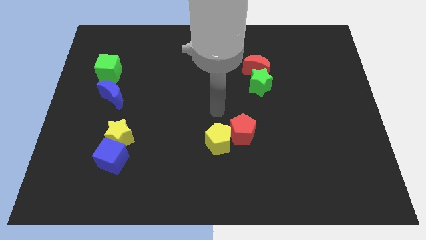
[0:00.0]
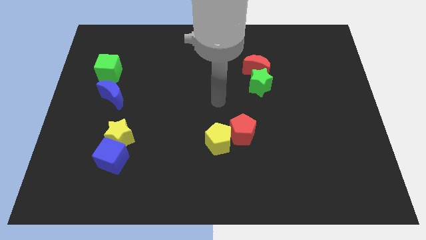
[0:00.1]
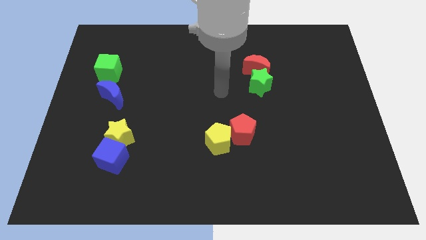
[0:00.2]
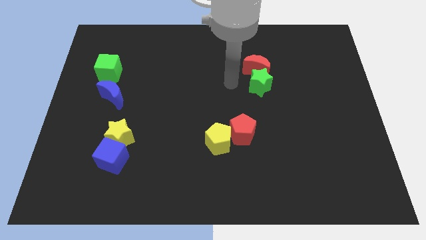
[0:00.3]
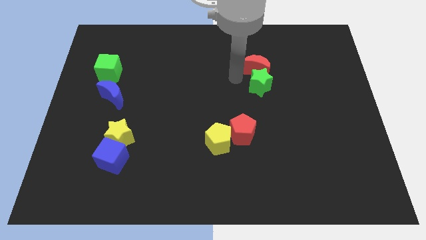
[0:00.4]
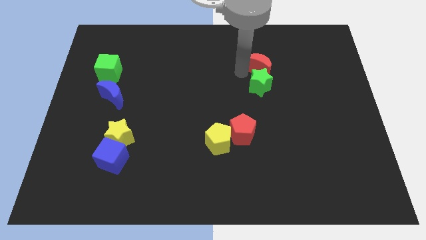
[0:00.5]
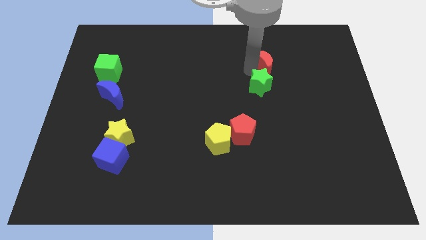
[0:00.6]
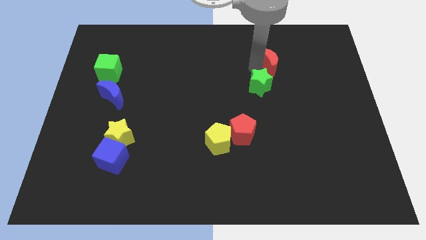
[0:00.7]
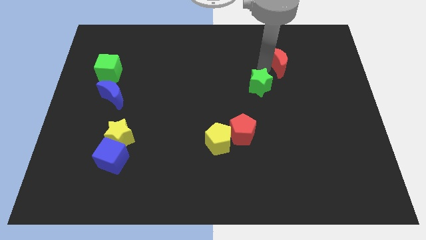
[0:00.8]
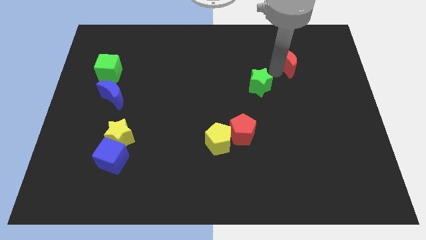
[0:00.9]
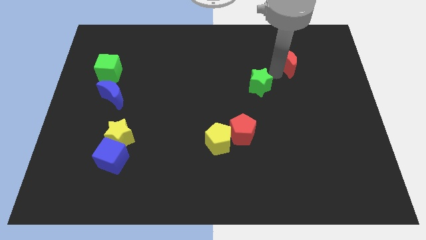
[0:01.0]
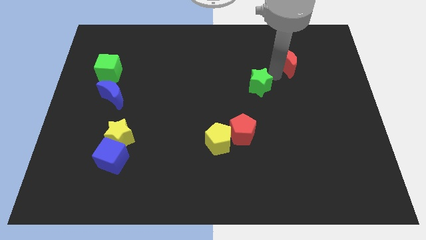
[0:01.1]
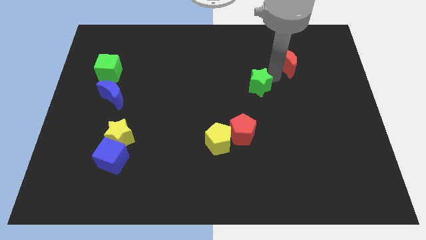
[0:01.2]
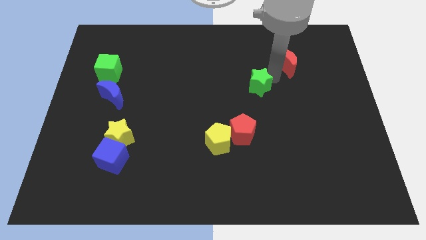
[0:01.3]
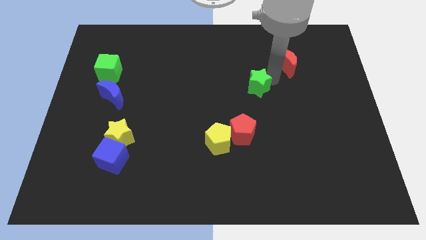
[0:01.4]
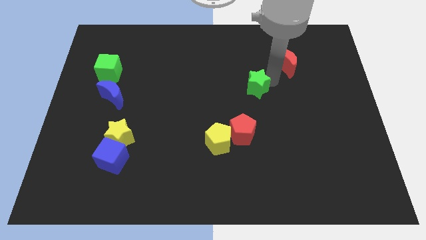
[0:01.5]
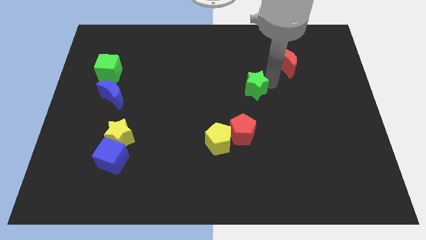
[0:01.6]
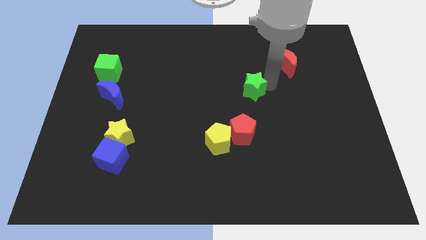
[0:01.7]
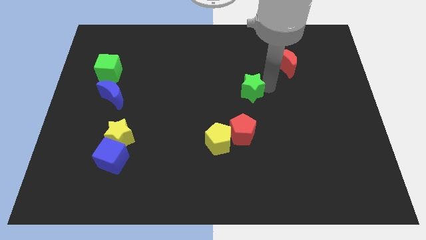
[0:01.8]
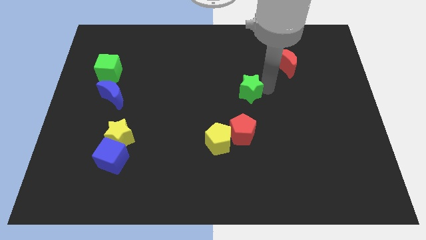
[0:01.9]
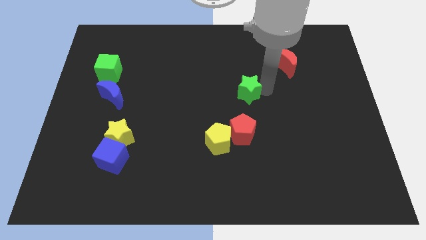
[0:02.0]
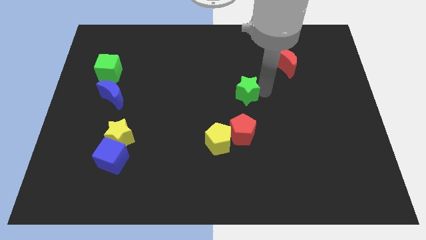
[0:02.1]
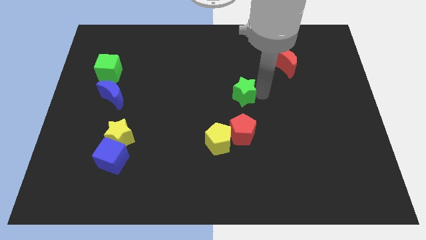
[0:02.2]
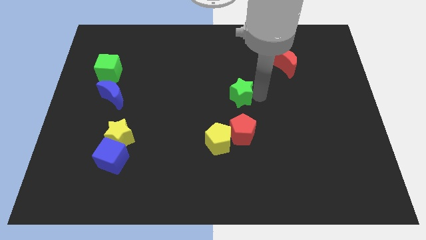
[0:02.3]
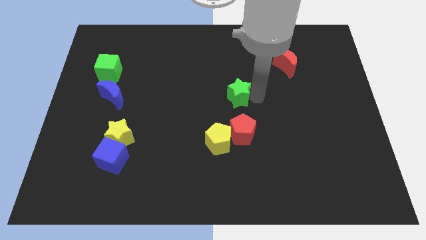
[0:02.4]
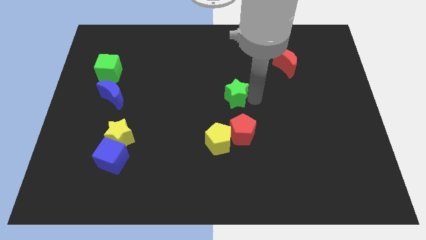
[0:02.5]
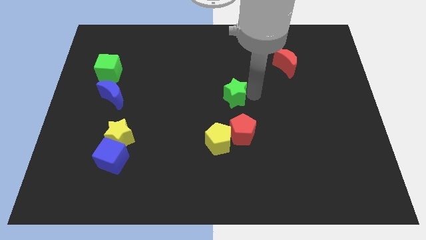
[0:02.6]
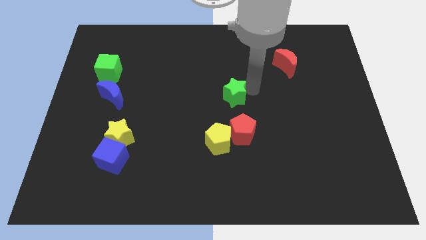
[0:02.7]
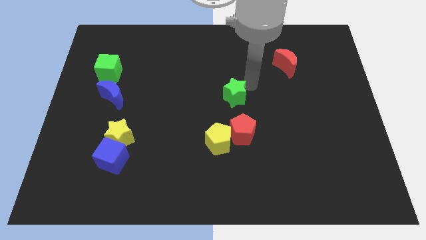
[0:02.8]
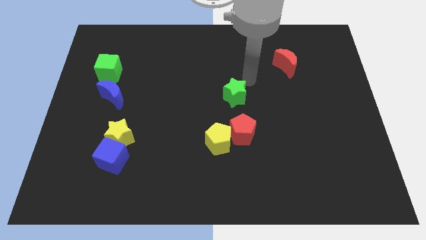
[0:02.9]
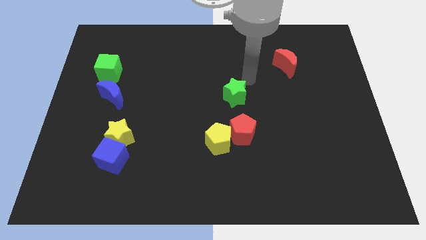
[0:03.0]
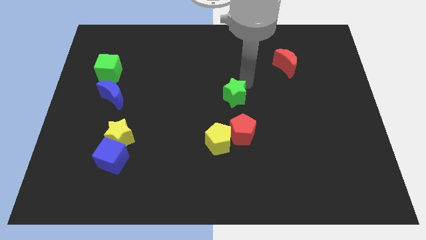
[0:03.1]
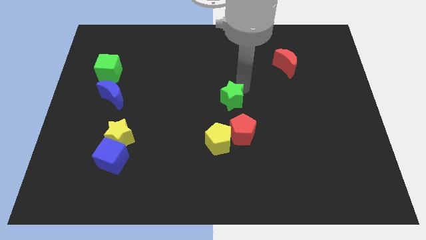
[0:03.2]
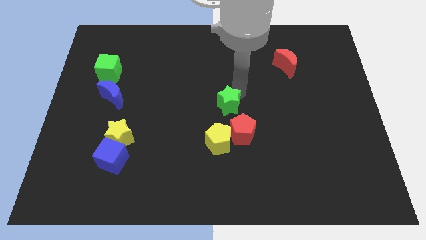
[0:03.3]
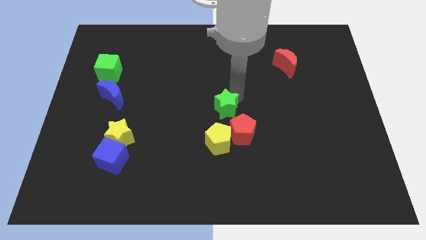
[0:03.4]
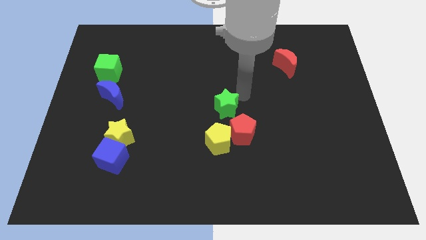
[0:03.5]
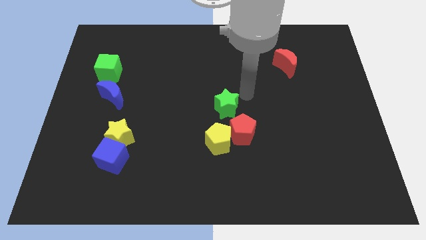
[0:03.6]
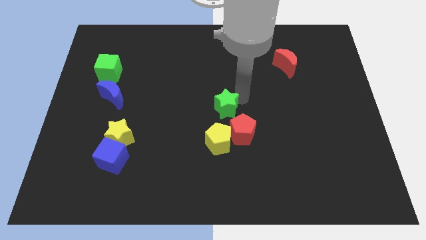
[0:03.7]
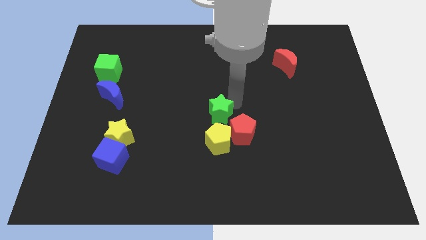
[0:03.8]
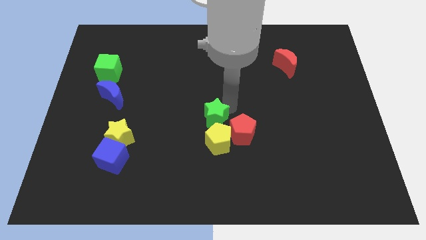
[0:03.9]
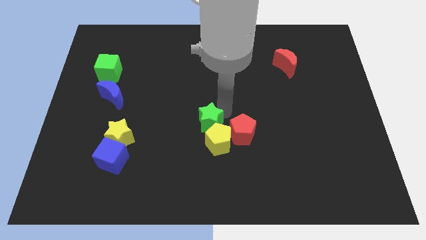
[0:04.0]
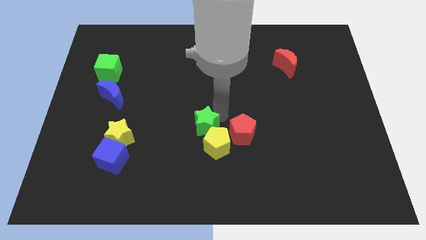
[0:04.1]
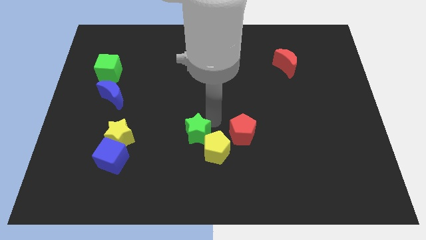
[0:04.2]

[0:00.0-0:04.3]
slide the green star downwards and then to the left

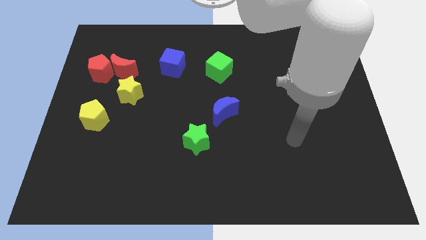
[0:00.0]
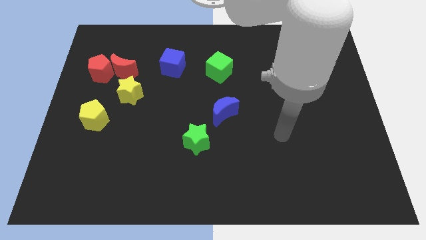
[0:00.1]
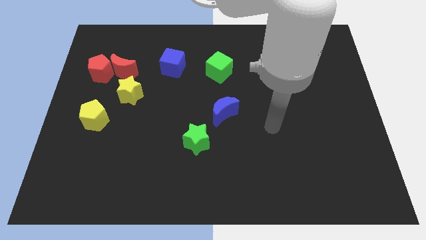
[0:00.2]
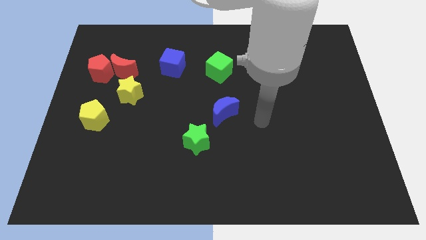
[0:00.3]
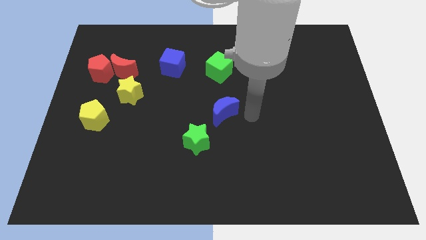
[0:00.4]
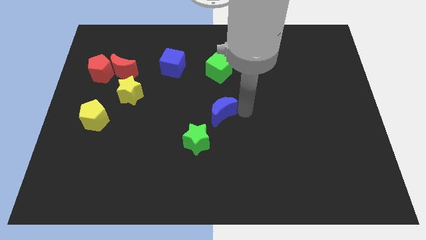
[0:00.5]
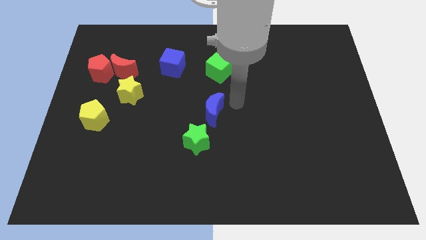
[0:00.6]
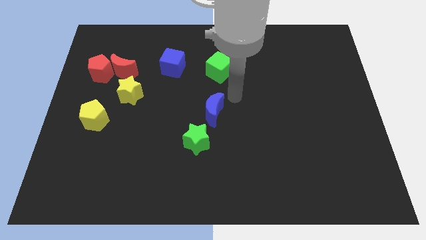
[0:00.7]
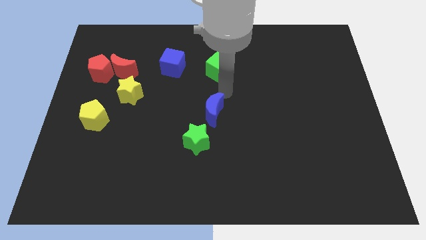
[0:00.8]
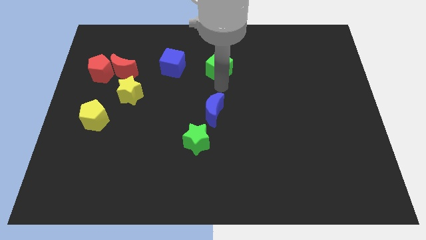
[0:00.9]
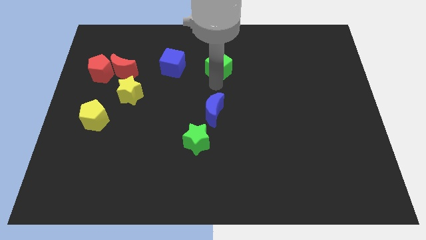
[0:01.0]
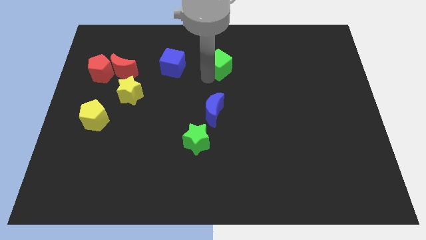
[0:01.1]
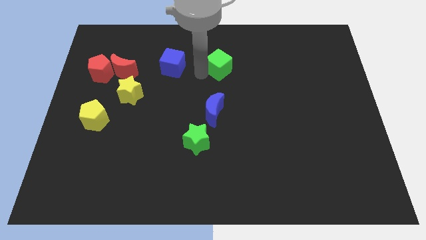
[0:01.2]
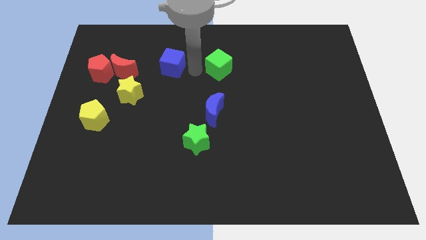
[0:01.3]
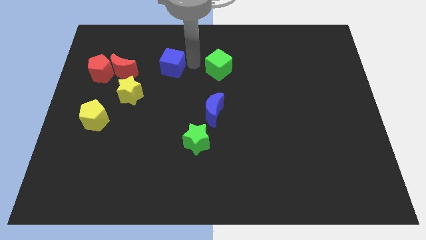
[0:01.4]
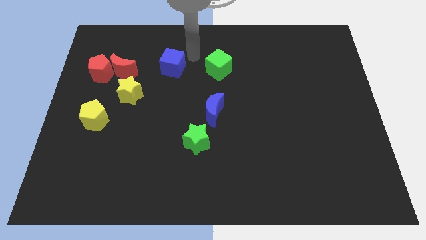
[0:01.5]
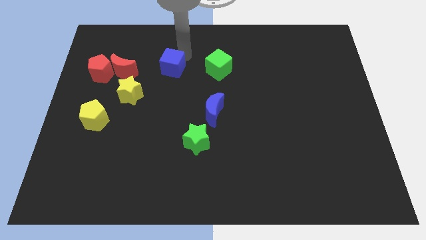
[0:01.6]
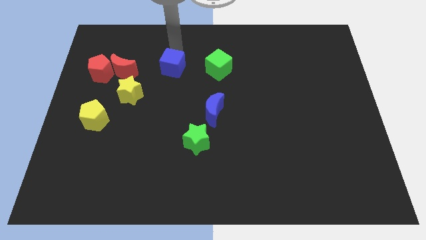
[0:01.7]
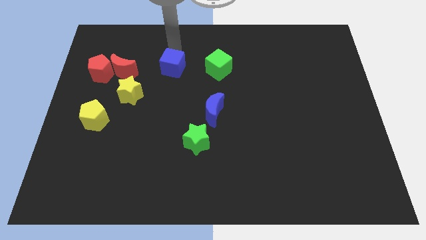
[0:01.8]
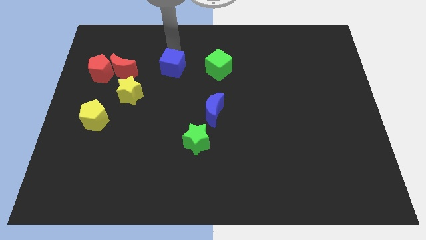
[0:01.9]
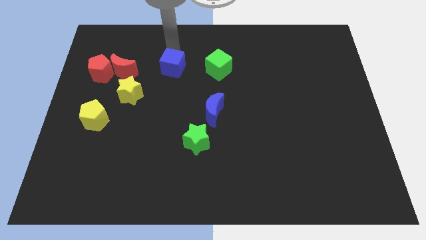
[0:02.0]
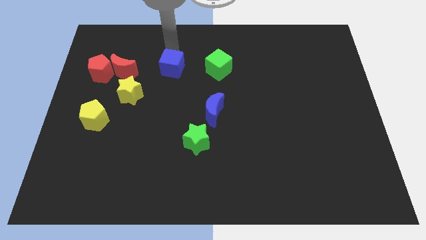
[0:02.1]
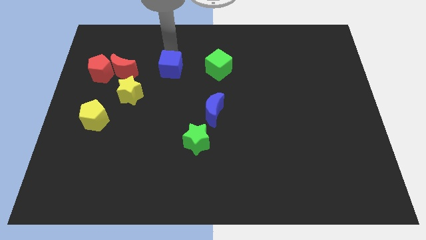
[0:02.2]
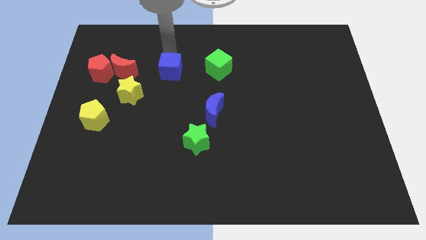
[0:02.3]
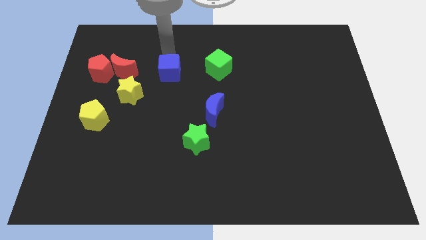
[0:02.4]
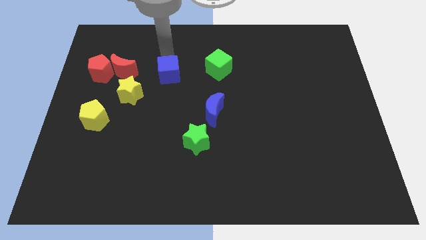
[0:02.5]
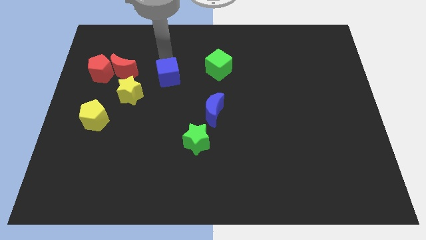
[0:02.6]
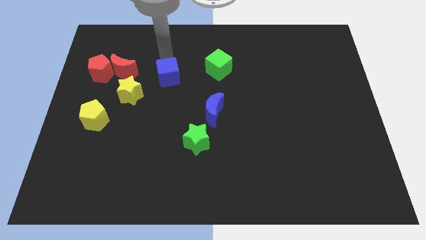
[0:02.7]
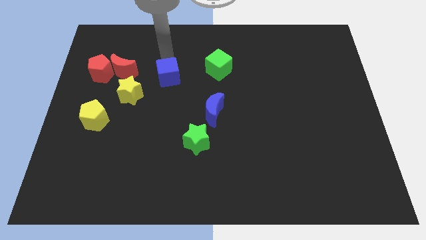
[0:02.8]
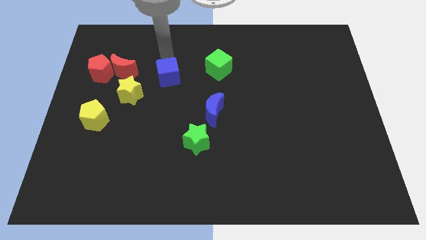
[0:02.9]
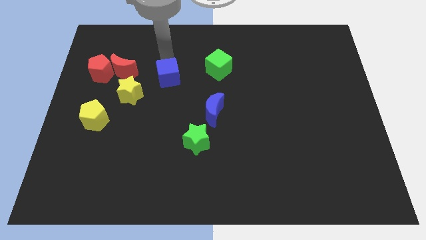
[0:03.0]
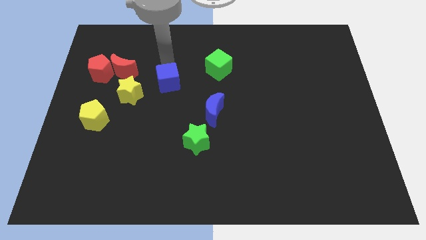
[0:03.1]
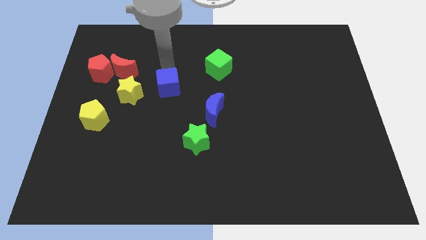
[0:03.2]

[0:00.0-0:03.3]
move the blue cube a bit downwards

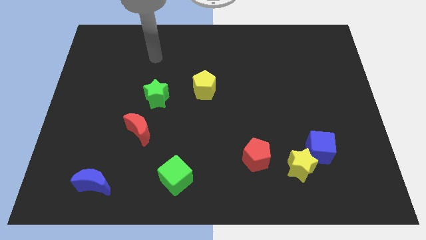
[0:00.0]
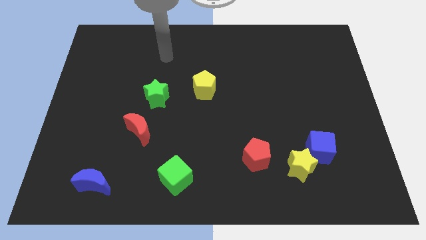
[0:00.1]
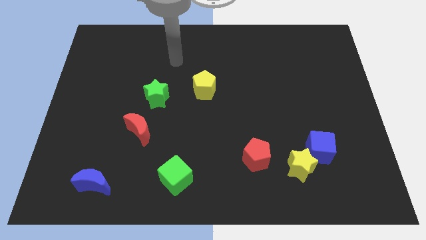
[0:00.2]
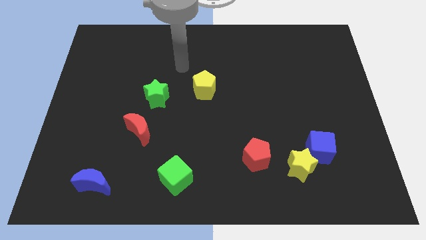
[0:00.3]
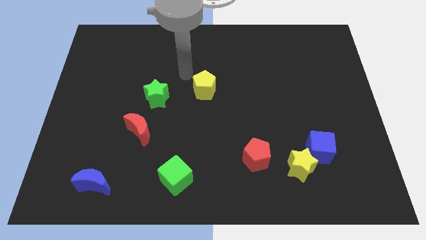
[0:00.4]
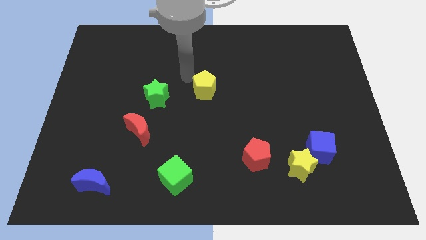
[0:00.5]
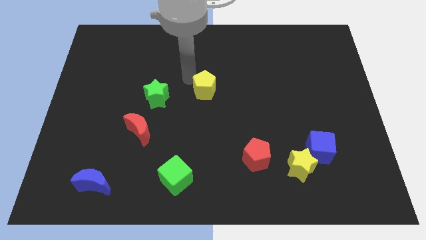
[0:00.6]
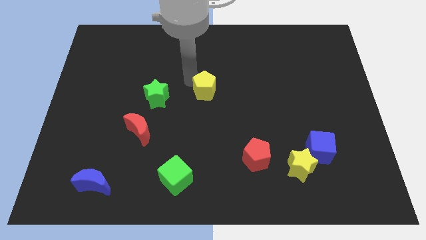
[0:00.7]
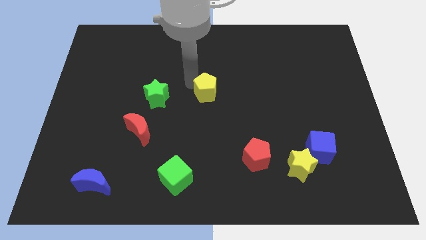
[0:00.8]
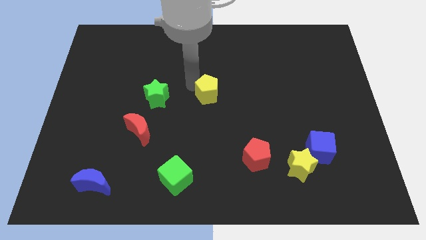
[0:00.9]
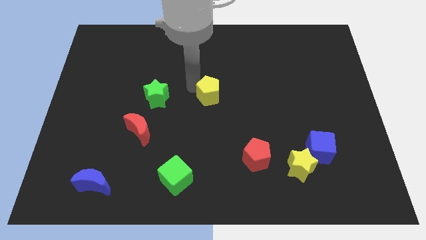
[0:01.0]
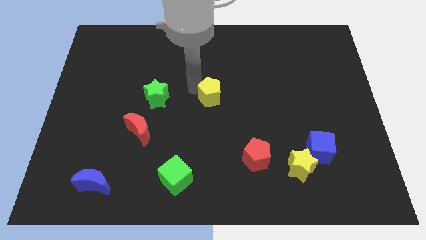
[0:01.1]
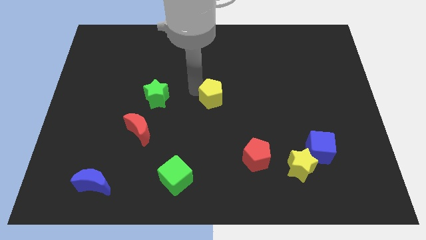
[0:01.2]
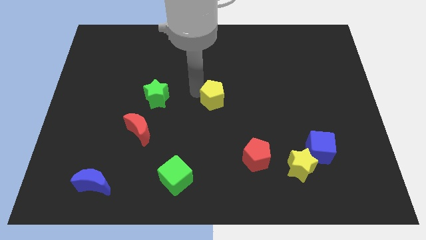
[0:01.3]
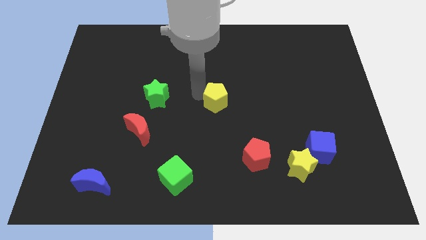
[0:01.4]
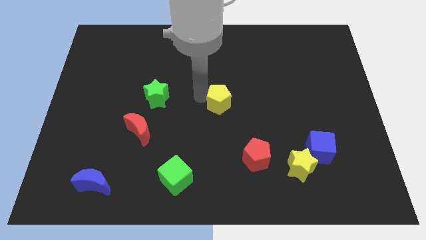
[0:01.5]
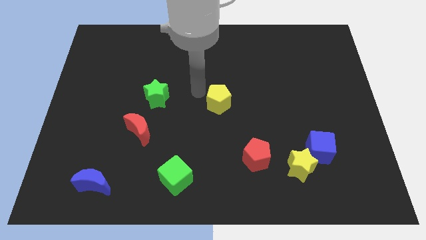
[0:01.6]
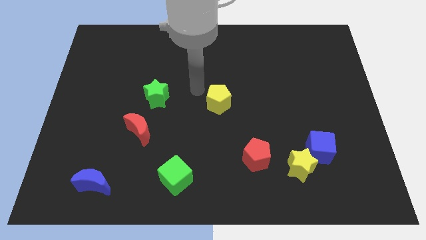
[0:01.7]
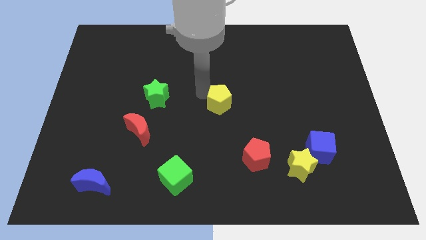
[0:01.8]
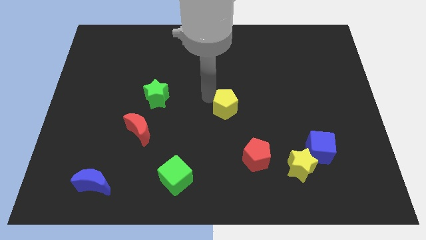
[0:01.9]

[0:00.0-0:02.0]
slightly push the yellow pentagon down and right
